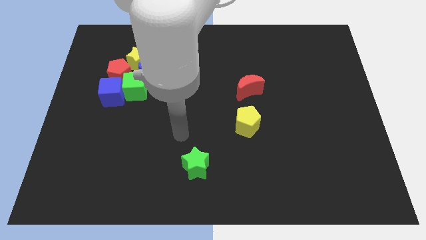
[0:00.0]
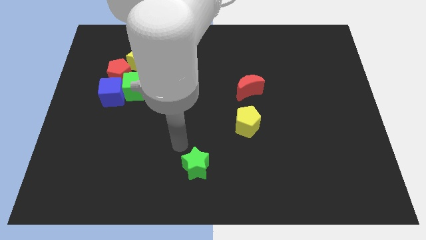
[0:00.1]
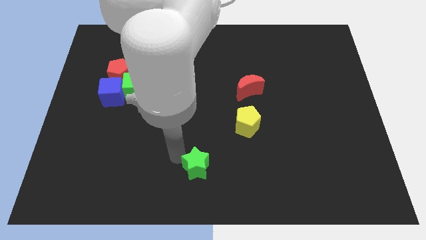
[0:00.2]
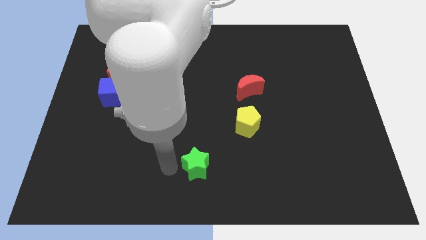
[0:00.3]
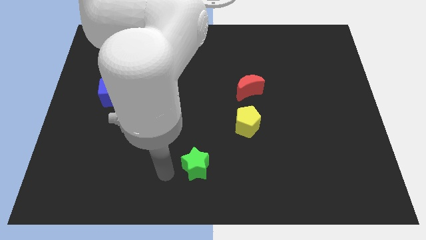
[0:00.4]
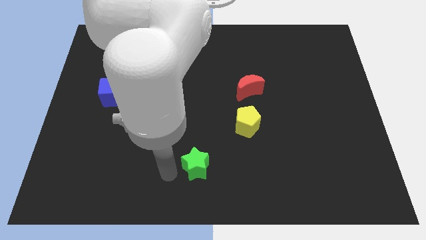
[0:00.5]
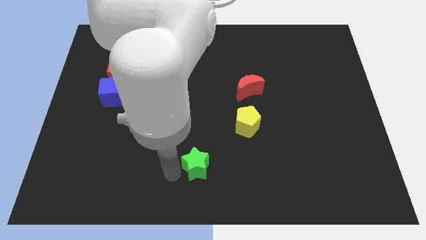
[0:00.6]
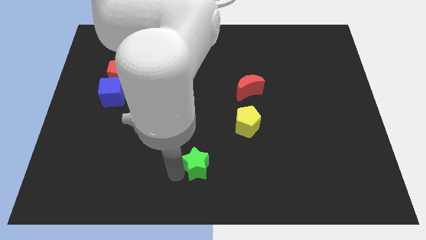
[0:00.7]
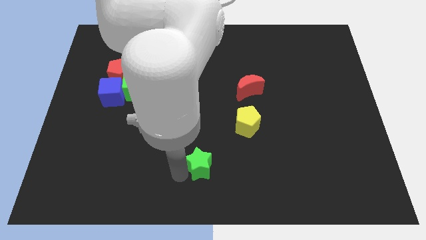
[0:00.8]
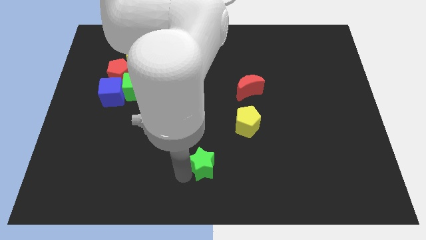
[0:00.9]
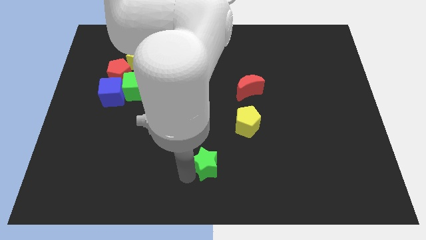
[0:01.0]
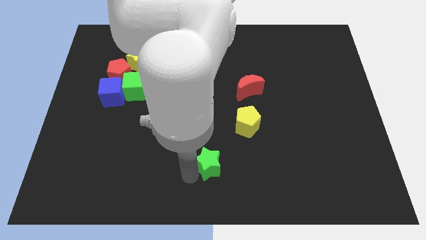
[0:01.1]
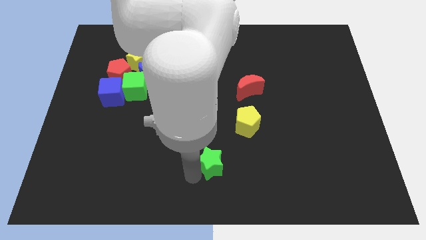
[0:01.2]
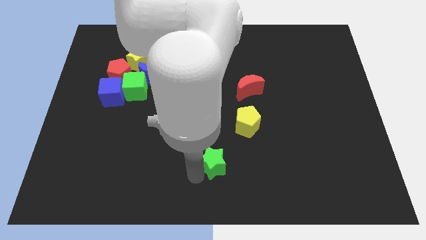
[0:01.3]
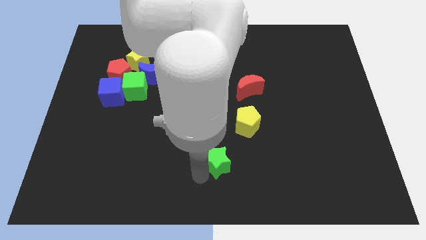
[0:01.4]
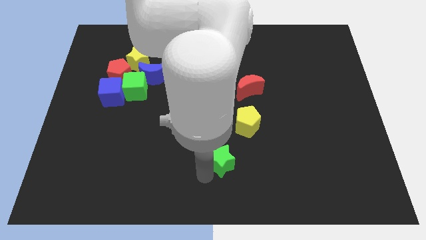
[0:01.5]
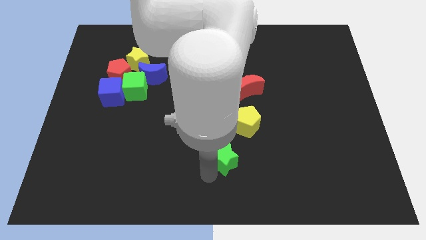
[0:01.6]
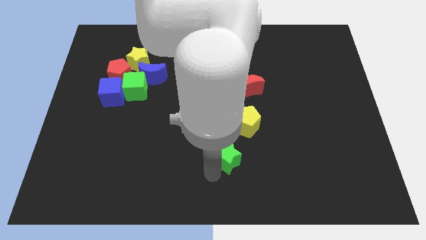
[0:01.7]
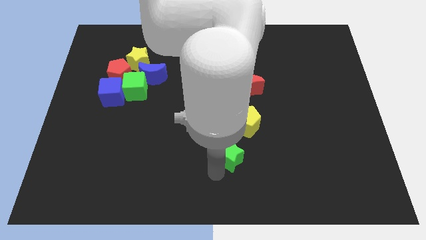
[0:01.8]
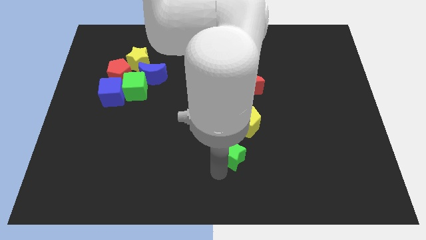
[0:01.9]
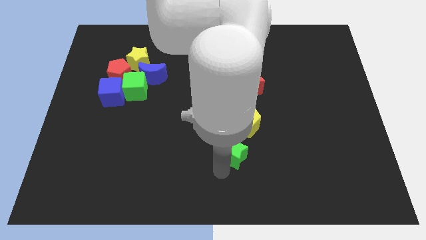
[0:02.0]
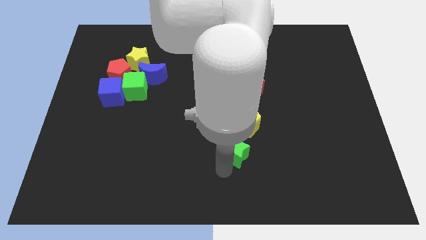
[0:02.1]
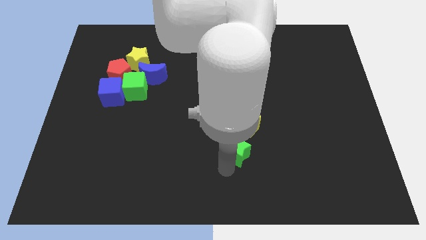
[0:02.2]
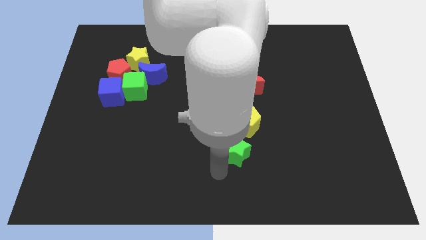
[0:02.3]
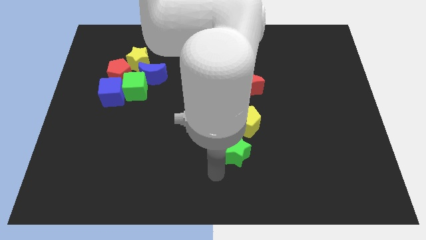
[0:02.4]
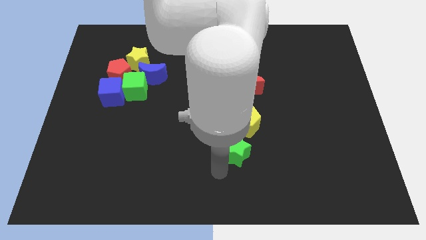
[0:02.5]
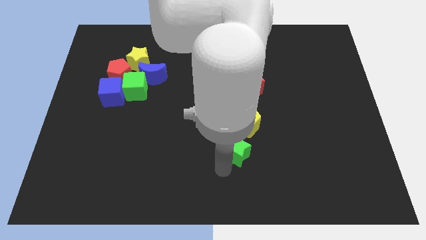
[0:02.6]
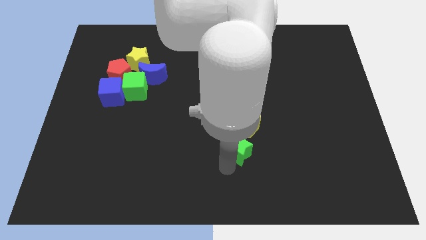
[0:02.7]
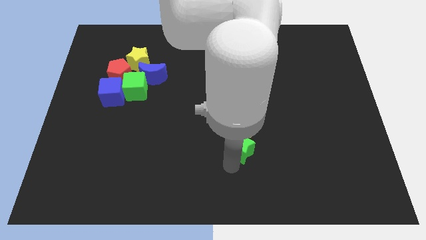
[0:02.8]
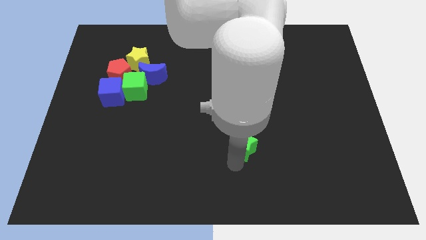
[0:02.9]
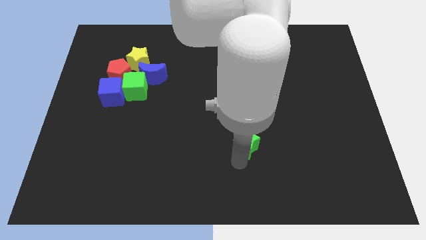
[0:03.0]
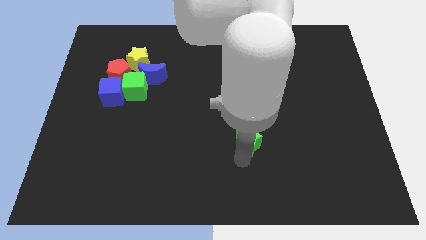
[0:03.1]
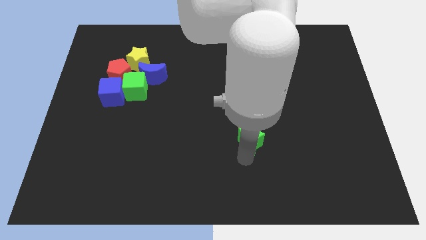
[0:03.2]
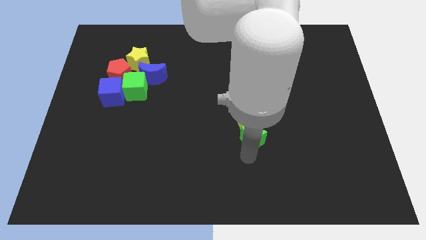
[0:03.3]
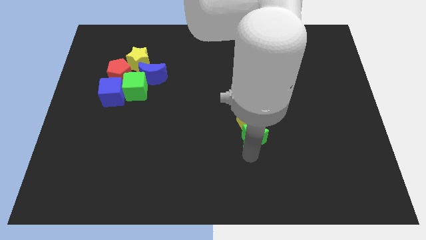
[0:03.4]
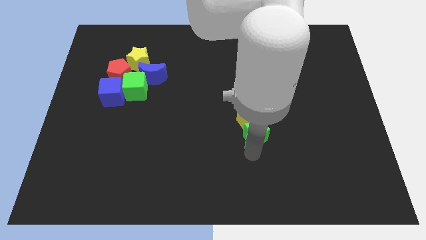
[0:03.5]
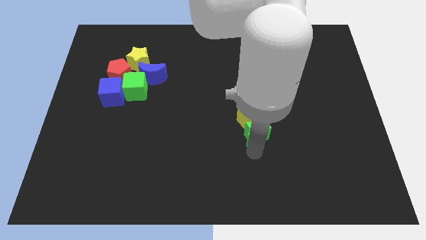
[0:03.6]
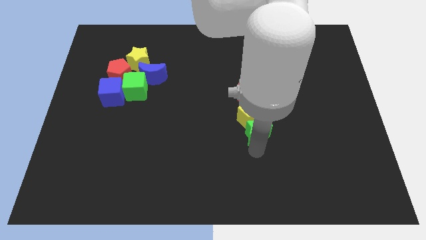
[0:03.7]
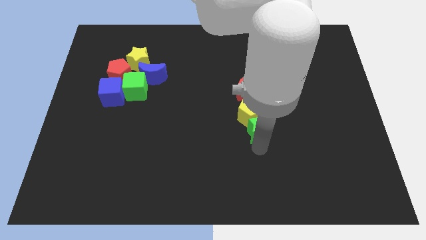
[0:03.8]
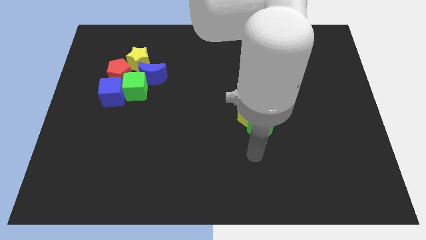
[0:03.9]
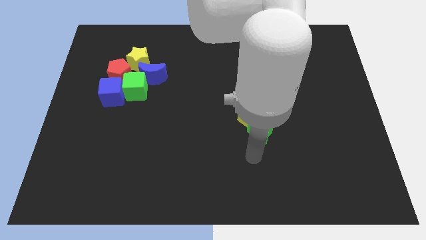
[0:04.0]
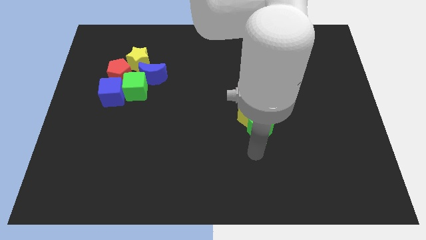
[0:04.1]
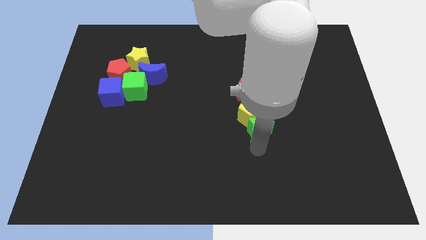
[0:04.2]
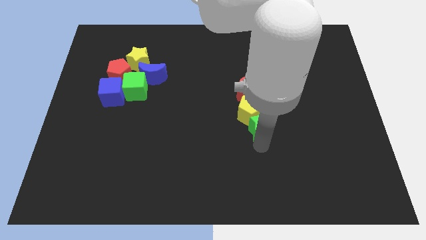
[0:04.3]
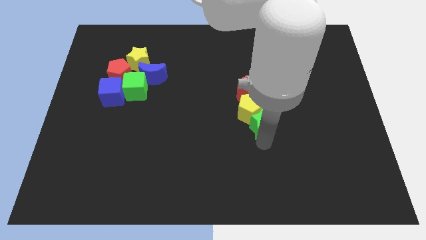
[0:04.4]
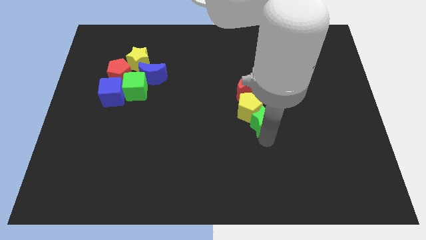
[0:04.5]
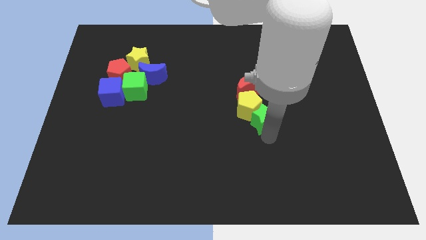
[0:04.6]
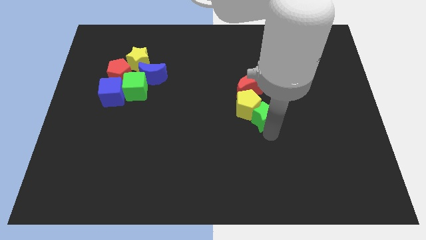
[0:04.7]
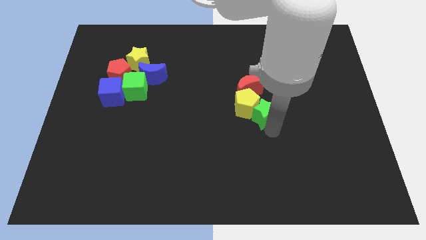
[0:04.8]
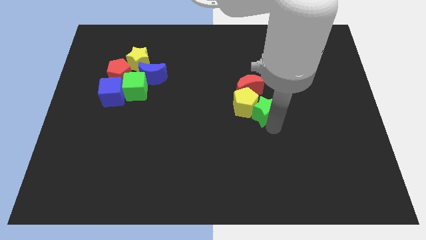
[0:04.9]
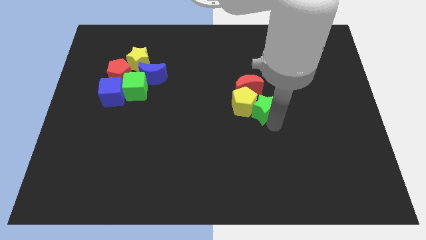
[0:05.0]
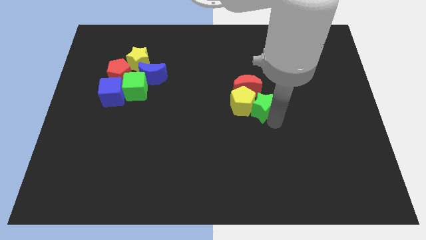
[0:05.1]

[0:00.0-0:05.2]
push the green star to the top right side of the yellow pentagon

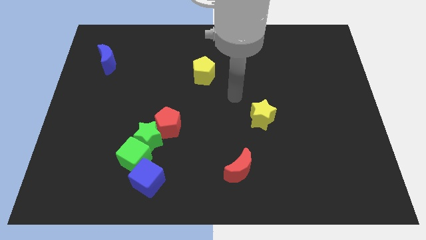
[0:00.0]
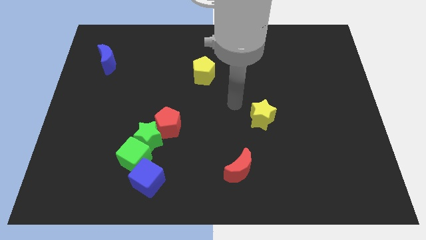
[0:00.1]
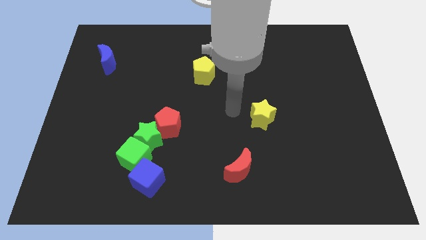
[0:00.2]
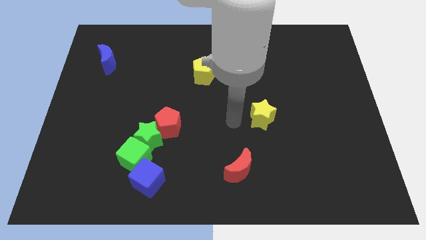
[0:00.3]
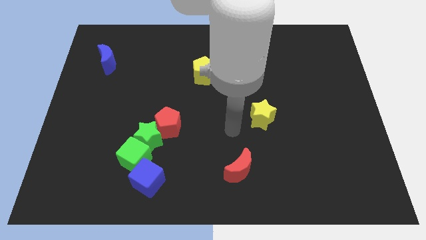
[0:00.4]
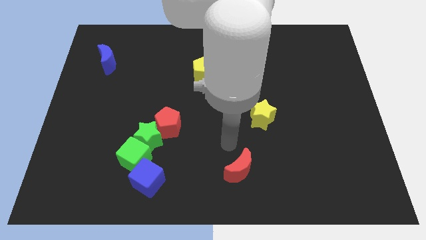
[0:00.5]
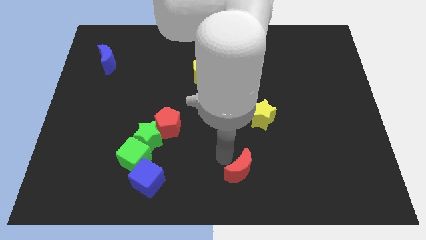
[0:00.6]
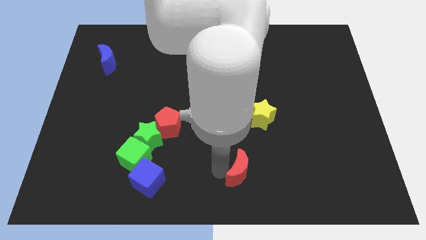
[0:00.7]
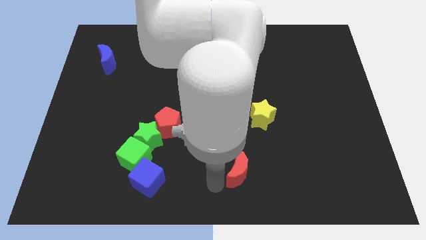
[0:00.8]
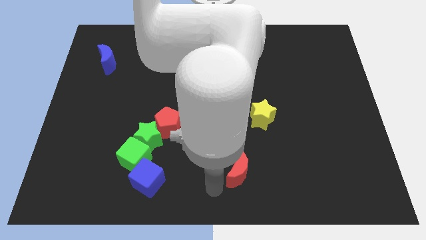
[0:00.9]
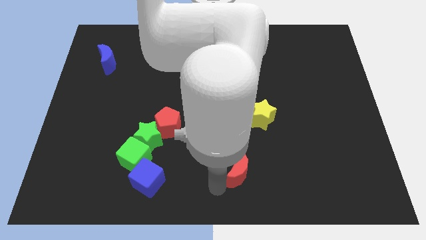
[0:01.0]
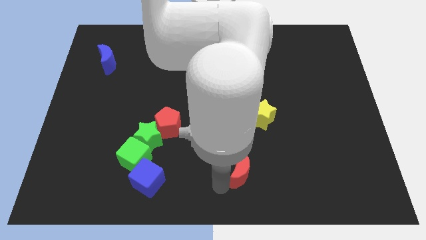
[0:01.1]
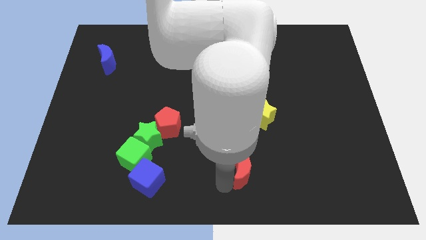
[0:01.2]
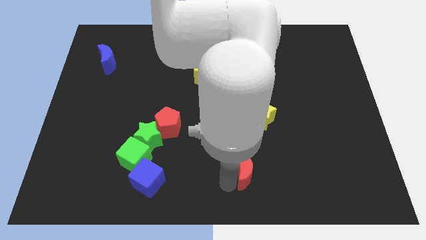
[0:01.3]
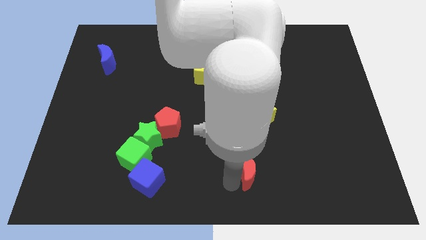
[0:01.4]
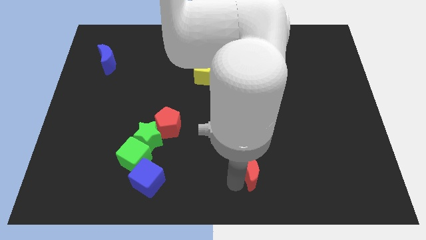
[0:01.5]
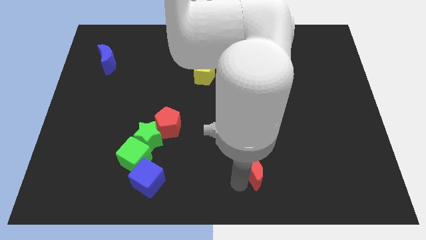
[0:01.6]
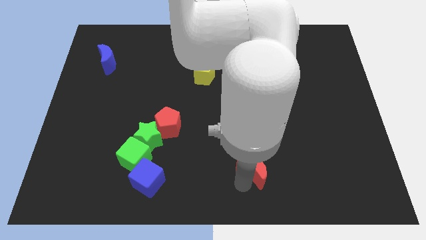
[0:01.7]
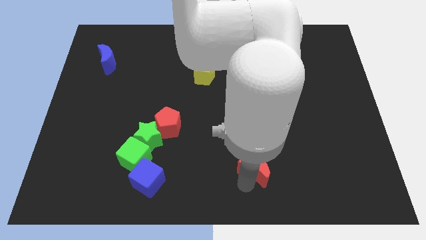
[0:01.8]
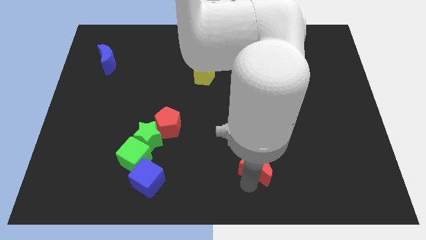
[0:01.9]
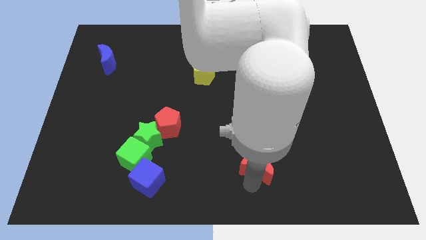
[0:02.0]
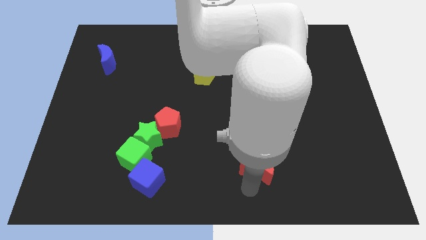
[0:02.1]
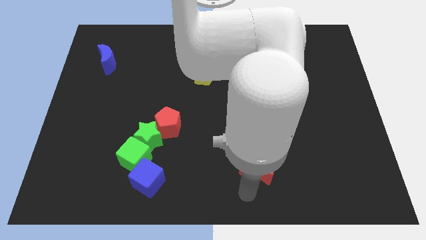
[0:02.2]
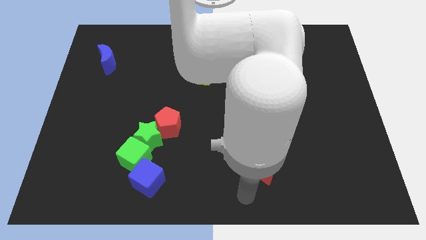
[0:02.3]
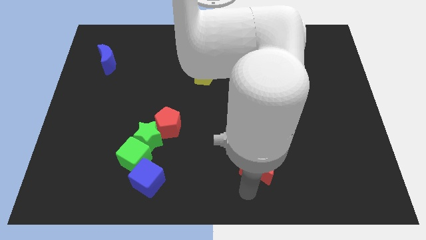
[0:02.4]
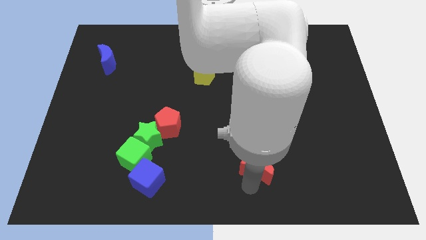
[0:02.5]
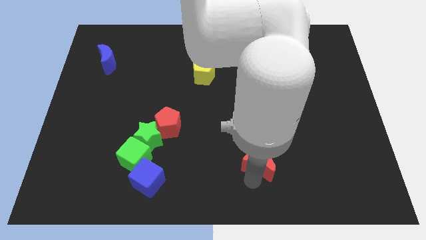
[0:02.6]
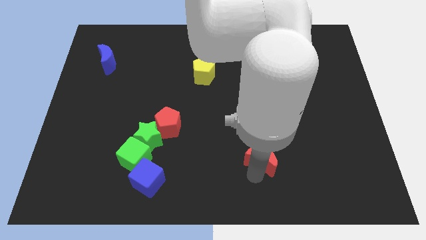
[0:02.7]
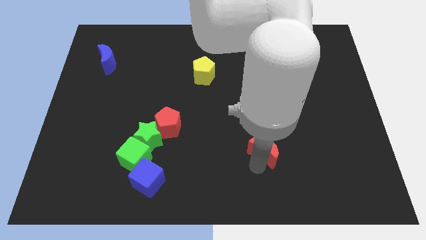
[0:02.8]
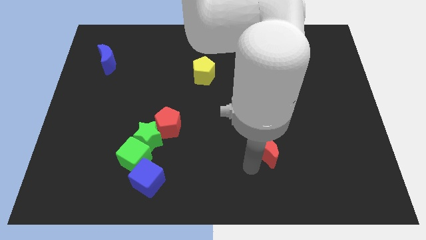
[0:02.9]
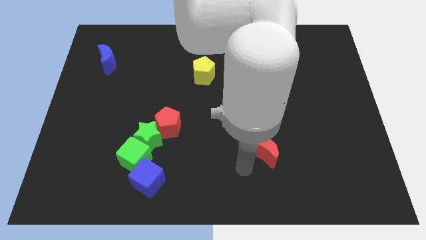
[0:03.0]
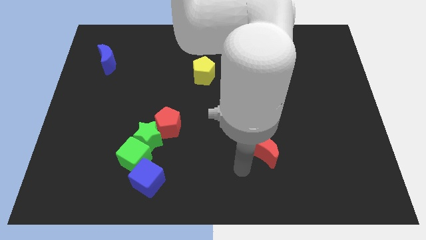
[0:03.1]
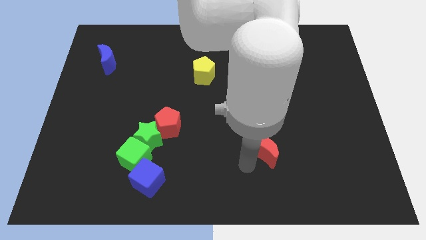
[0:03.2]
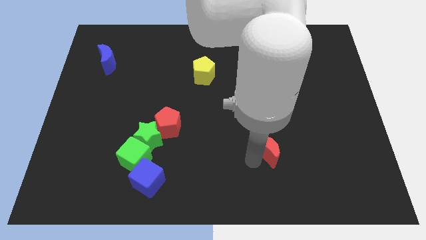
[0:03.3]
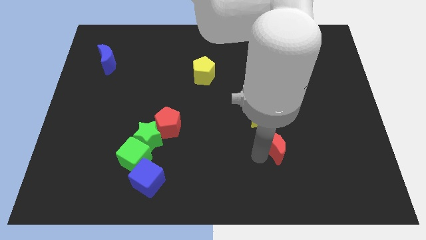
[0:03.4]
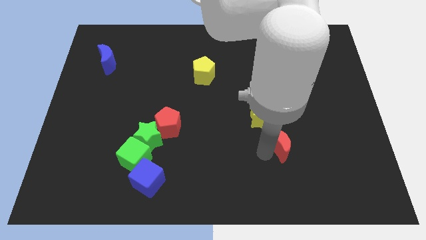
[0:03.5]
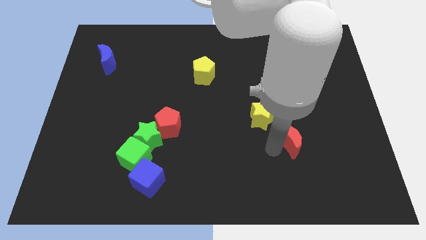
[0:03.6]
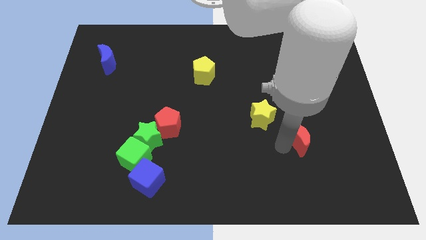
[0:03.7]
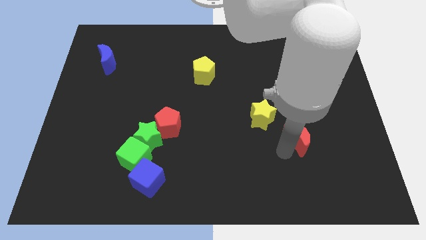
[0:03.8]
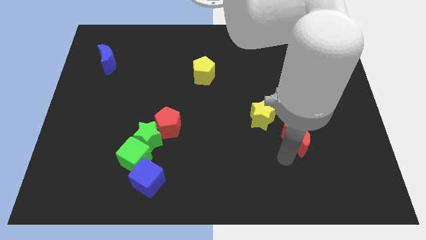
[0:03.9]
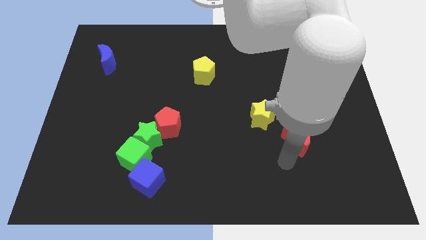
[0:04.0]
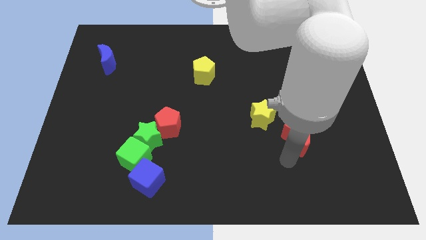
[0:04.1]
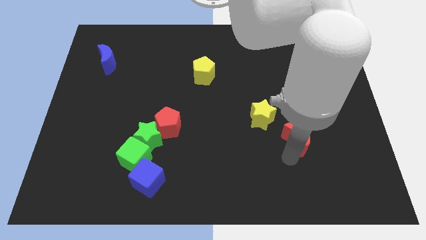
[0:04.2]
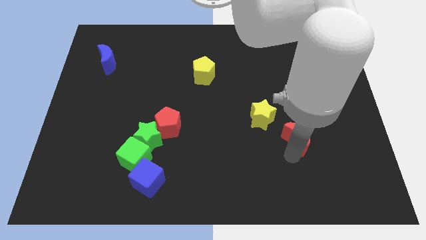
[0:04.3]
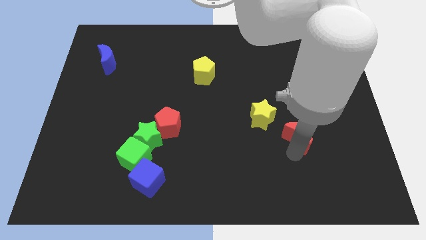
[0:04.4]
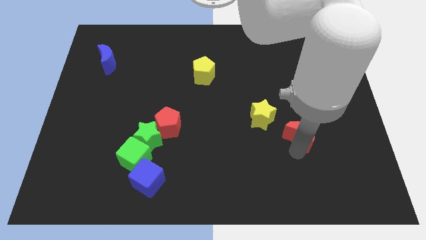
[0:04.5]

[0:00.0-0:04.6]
put the red moon to the right side of the yellow star
